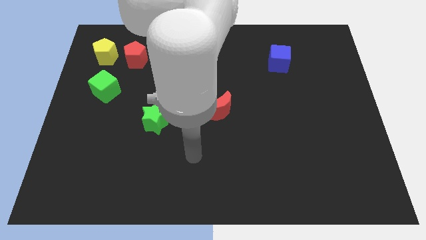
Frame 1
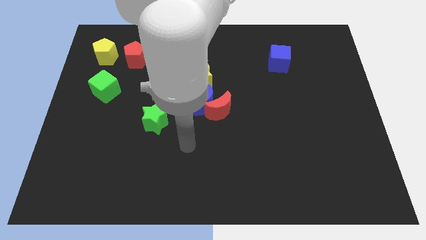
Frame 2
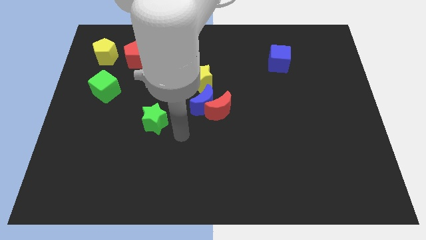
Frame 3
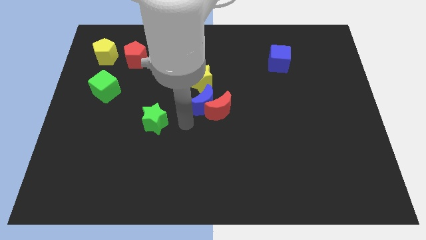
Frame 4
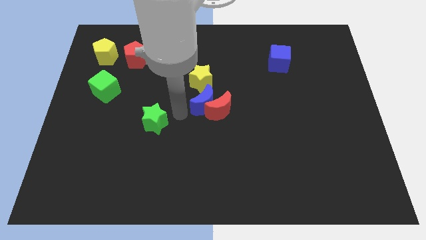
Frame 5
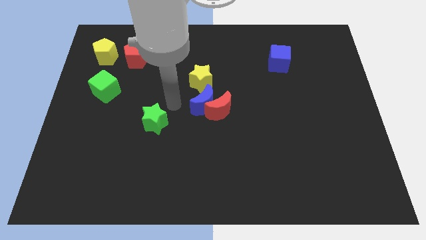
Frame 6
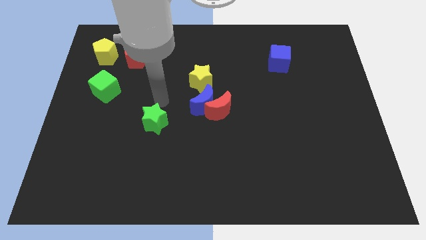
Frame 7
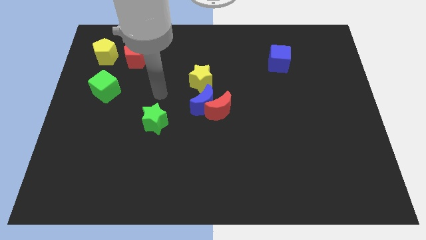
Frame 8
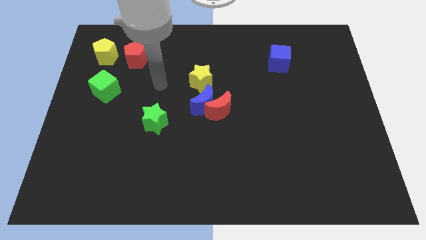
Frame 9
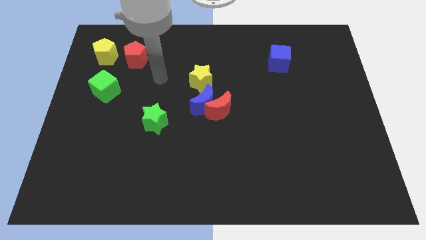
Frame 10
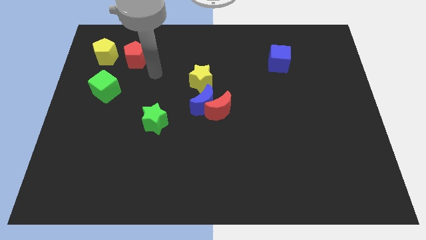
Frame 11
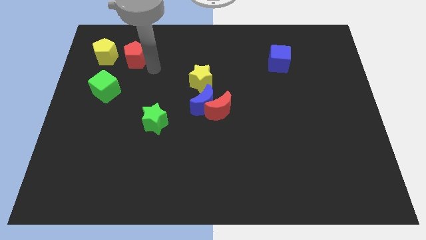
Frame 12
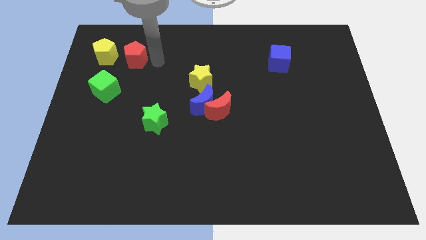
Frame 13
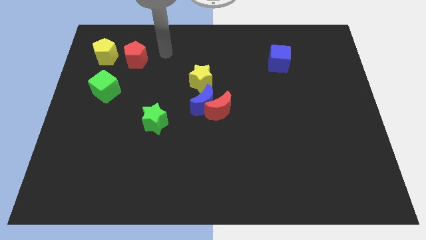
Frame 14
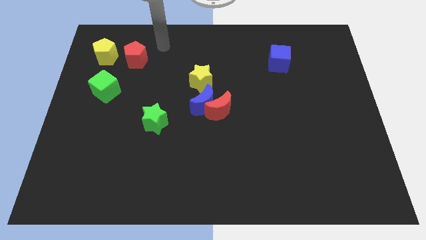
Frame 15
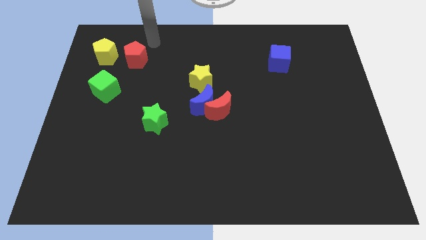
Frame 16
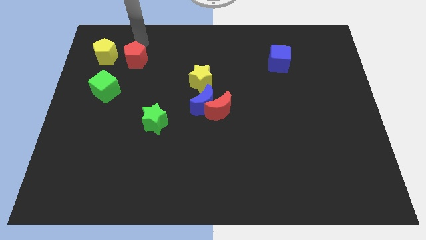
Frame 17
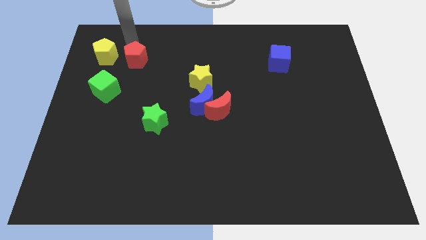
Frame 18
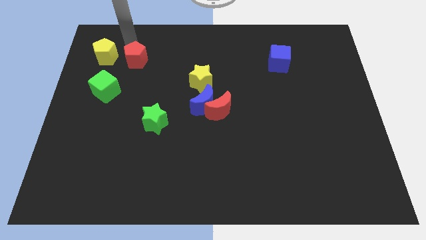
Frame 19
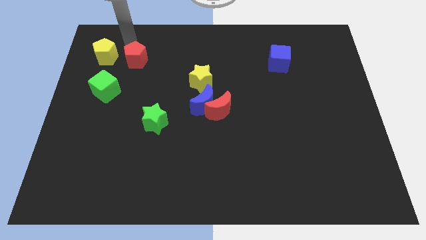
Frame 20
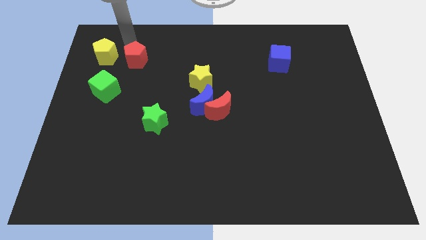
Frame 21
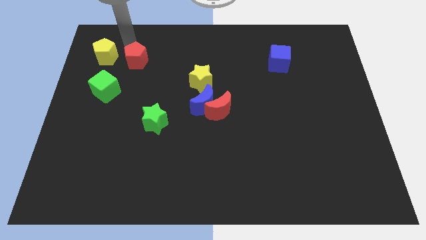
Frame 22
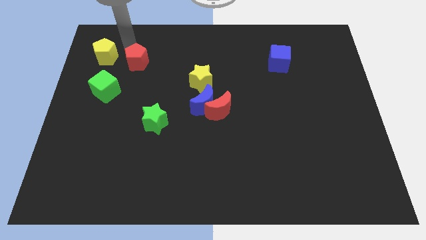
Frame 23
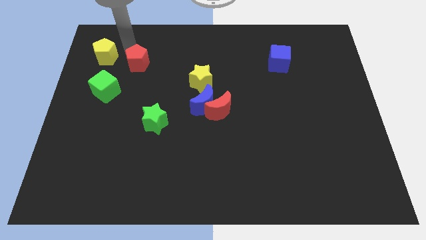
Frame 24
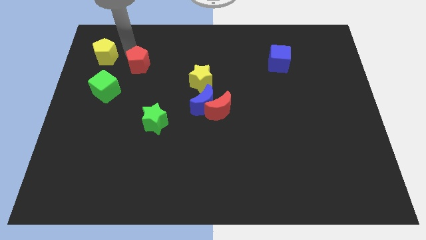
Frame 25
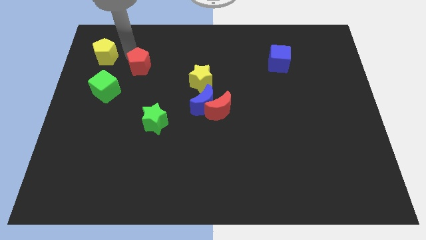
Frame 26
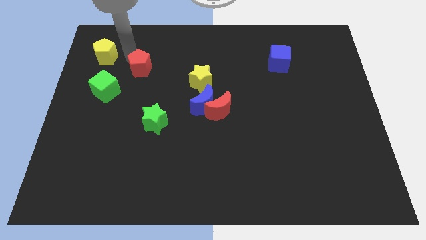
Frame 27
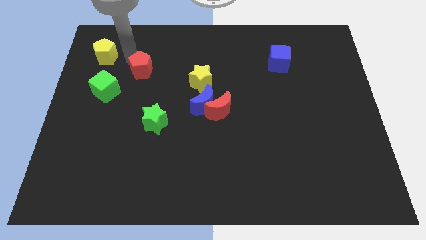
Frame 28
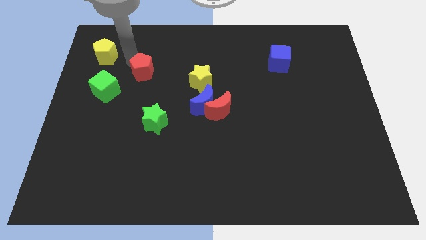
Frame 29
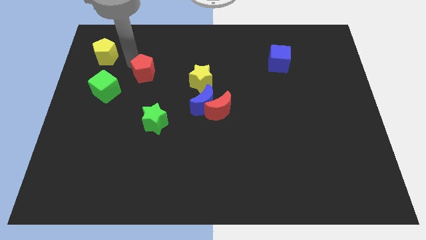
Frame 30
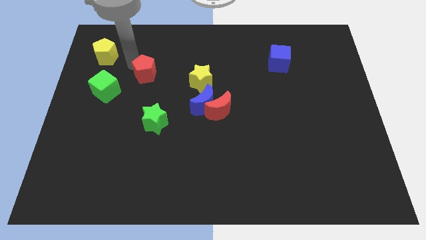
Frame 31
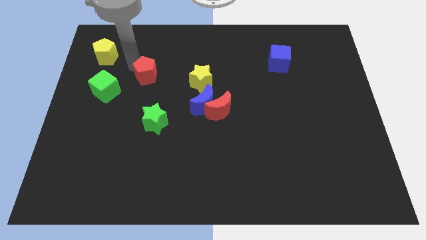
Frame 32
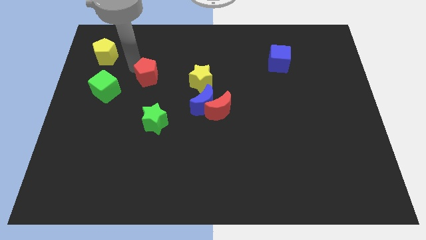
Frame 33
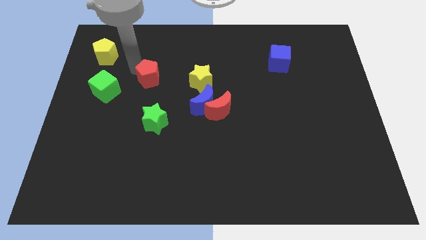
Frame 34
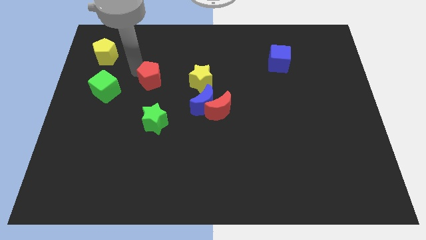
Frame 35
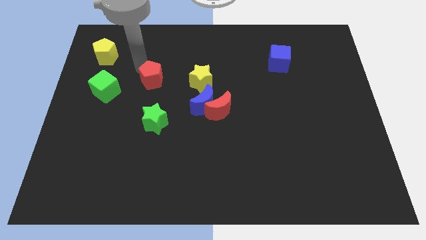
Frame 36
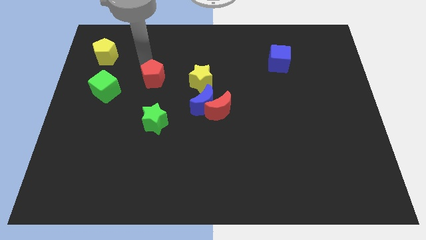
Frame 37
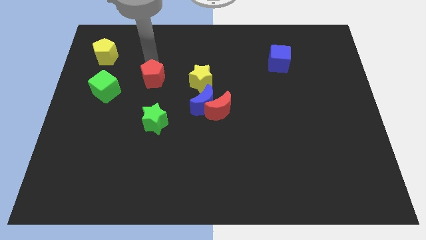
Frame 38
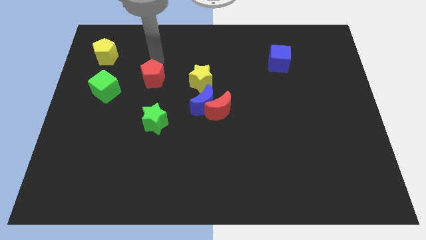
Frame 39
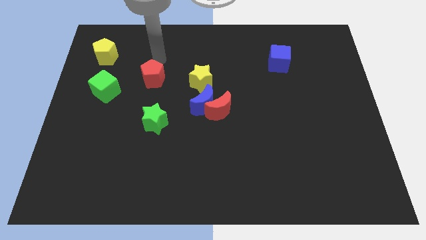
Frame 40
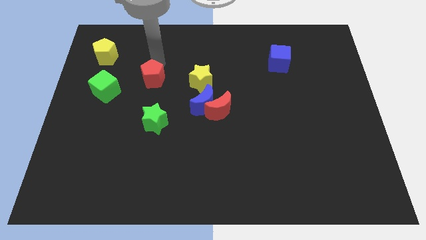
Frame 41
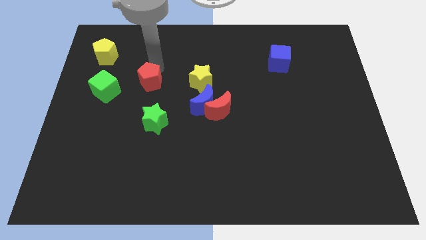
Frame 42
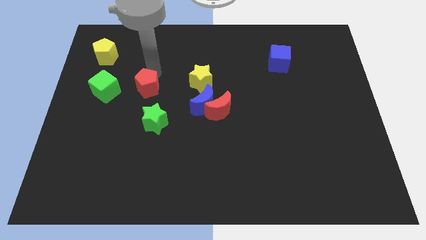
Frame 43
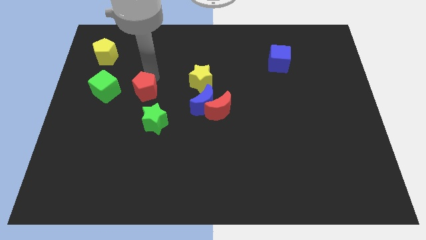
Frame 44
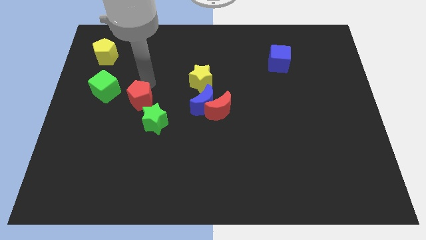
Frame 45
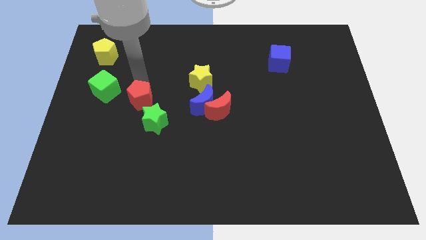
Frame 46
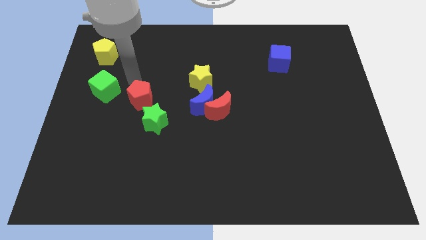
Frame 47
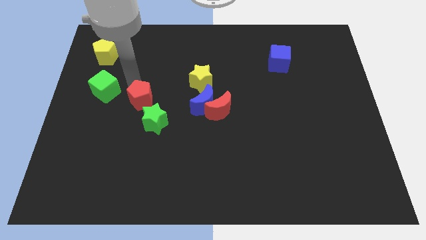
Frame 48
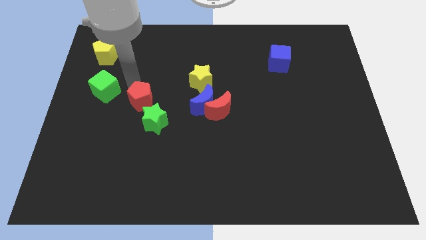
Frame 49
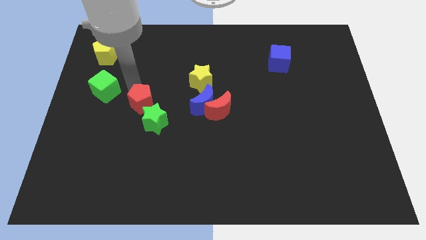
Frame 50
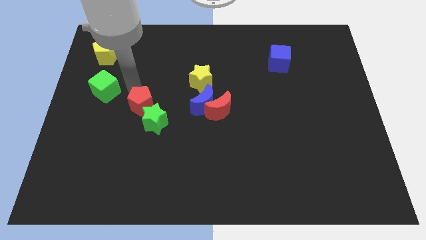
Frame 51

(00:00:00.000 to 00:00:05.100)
put the red pentagon next to the green star

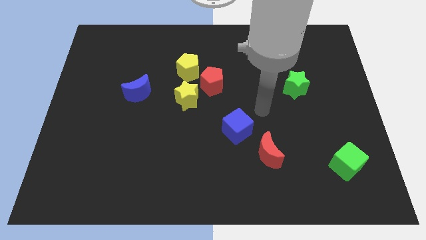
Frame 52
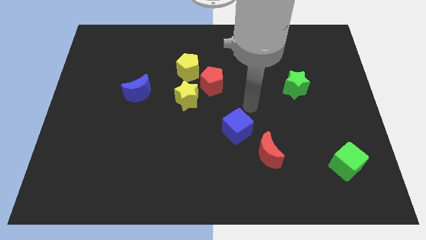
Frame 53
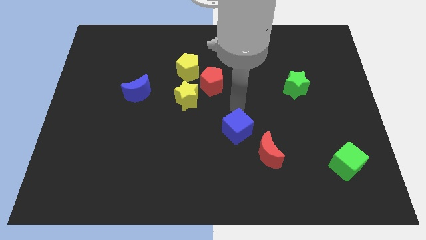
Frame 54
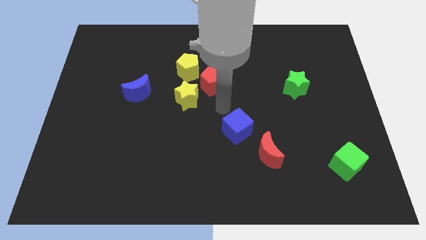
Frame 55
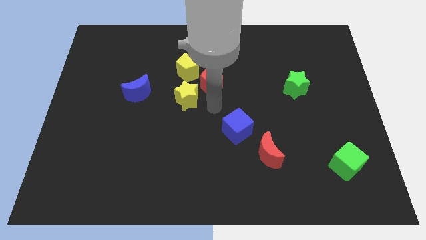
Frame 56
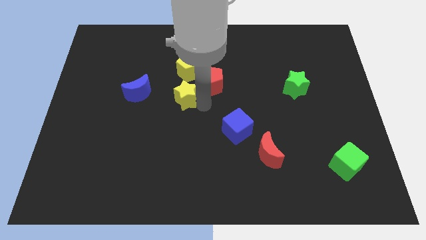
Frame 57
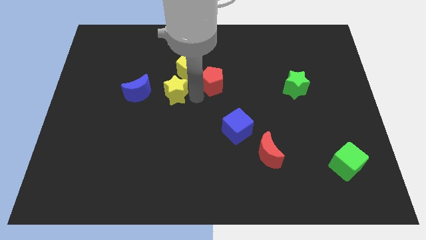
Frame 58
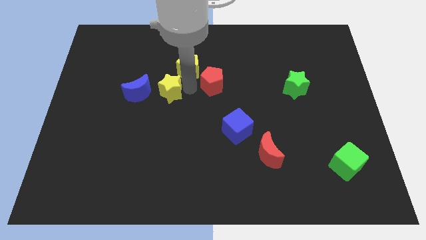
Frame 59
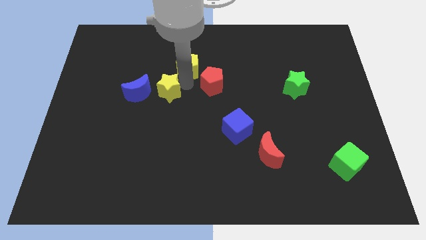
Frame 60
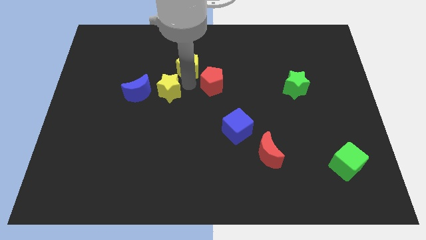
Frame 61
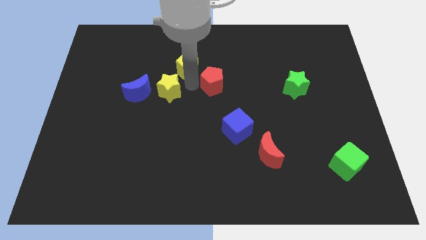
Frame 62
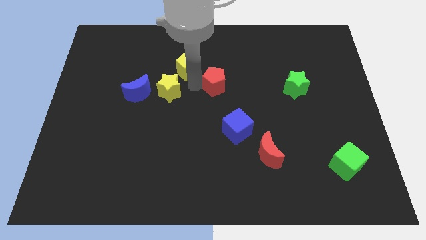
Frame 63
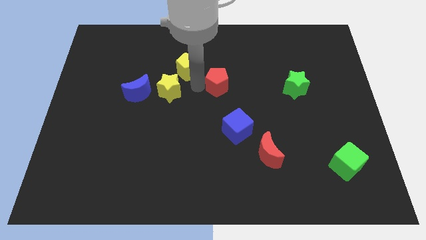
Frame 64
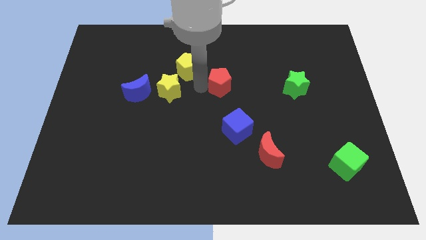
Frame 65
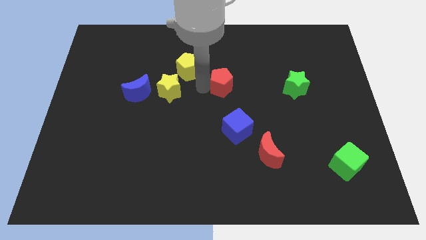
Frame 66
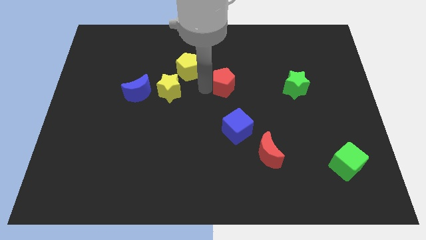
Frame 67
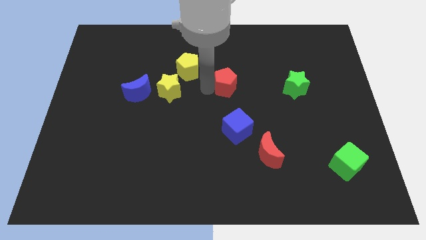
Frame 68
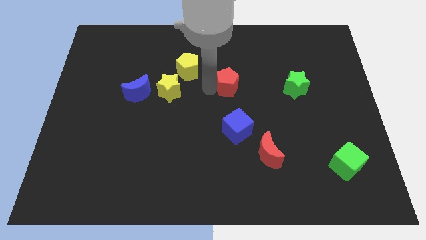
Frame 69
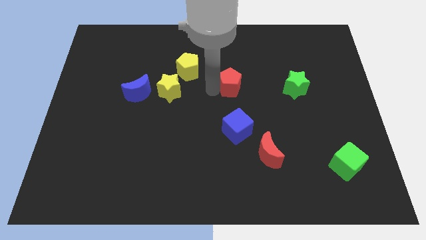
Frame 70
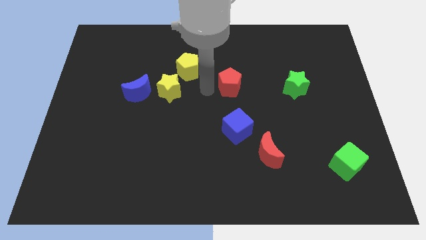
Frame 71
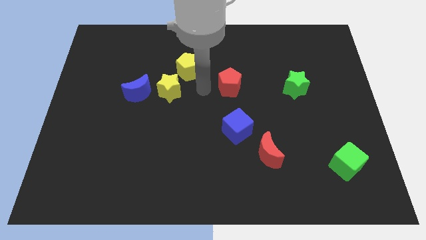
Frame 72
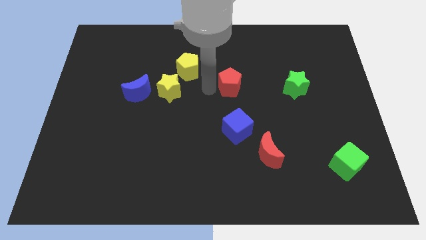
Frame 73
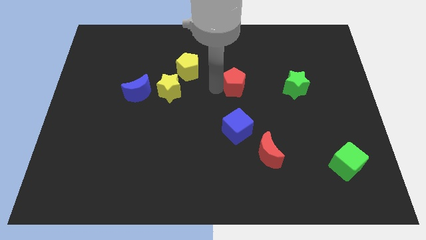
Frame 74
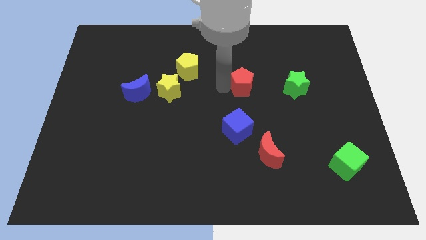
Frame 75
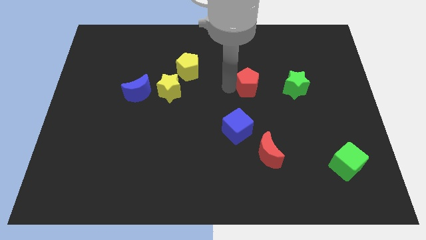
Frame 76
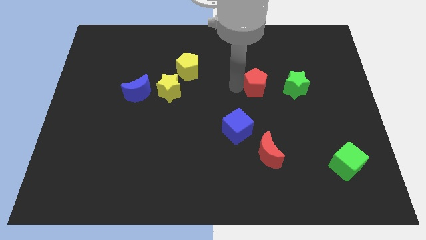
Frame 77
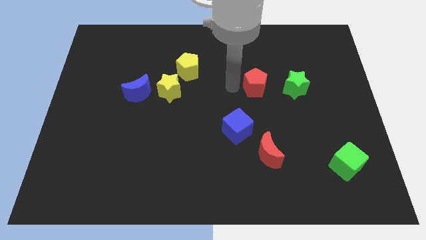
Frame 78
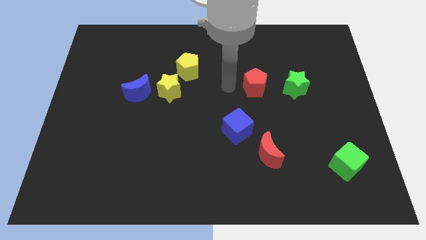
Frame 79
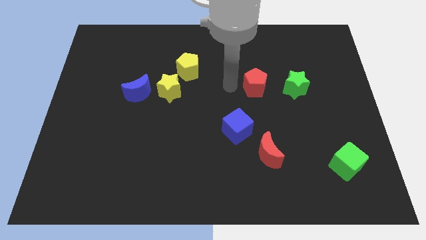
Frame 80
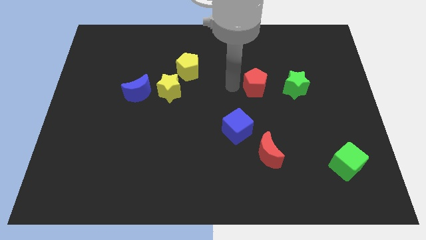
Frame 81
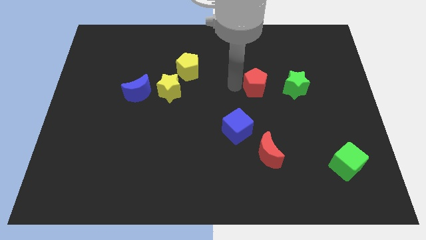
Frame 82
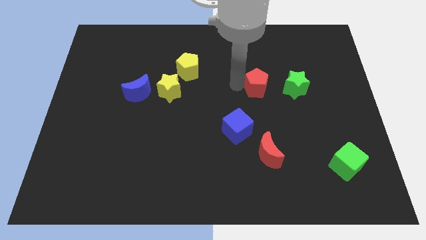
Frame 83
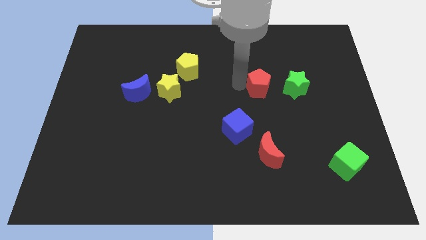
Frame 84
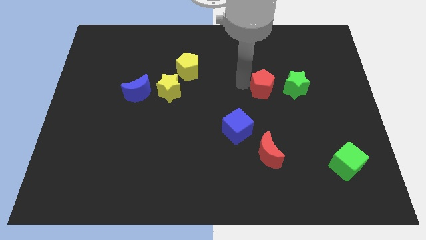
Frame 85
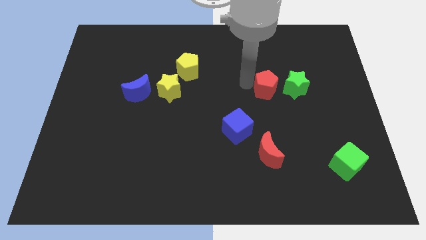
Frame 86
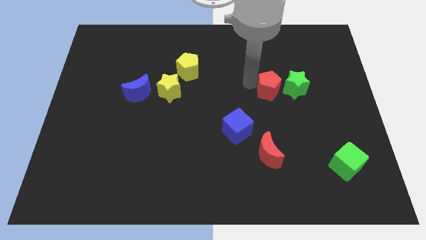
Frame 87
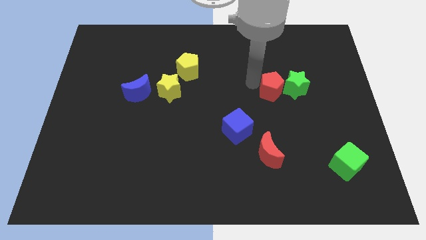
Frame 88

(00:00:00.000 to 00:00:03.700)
slide the red pentagon to the green star
